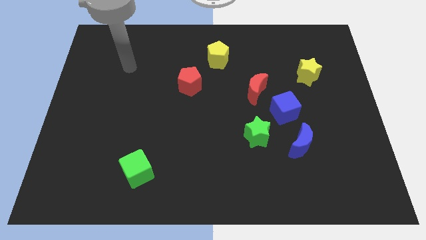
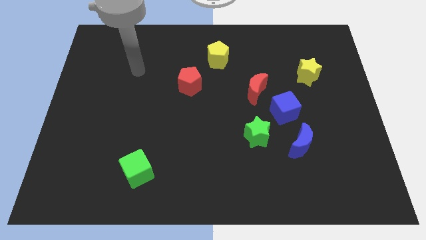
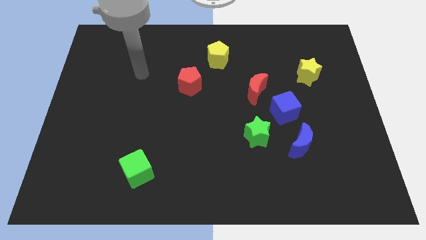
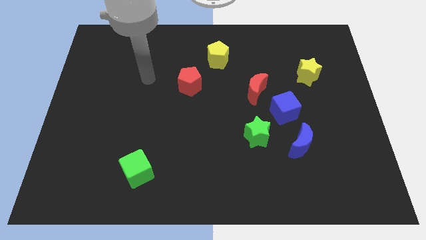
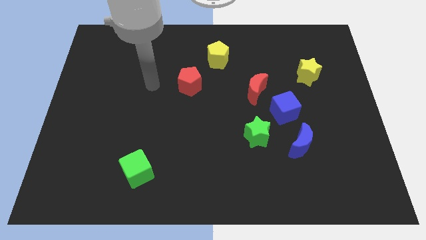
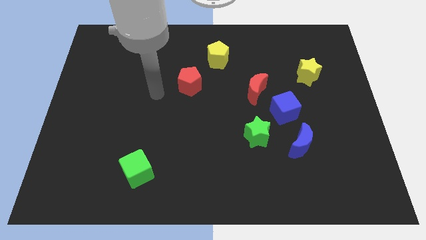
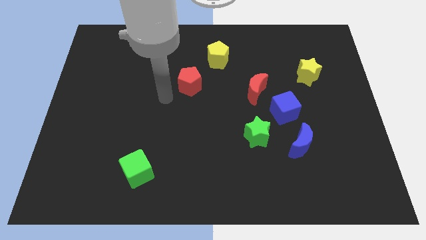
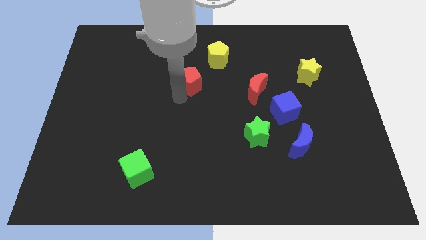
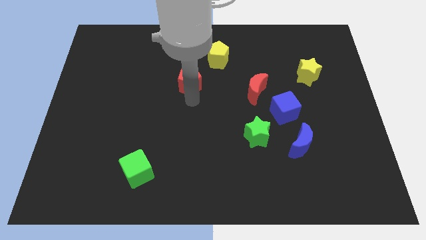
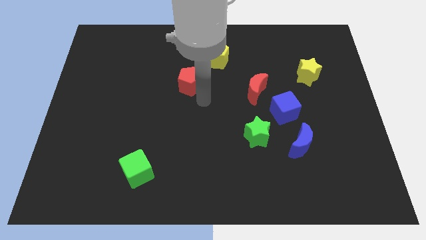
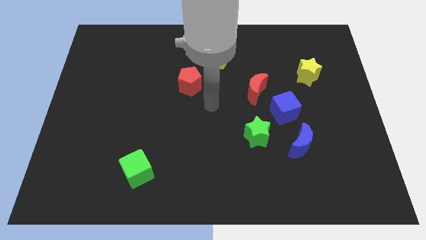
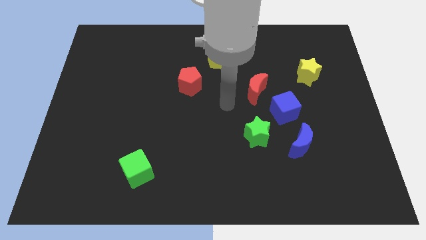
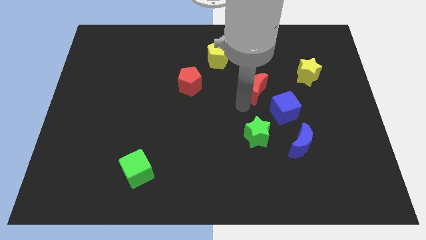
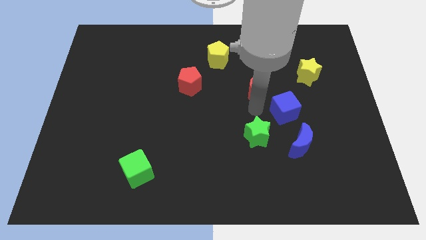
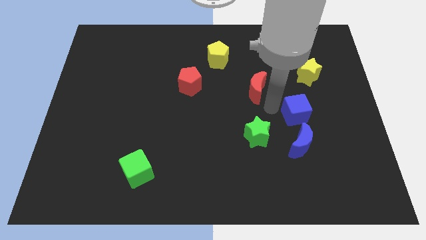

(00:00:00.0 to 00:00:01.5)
separate the red moon from the blue cube

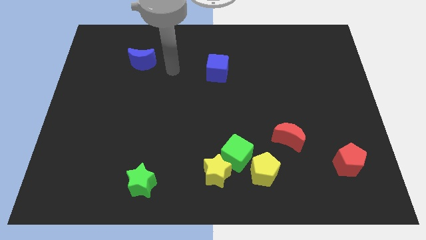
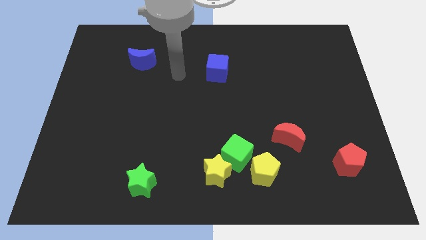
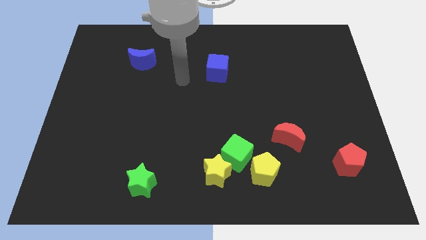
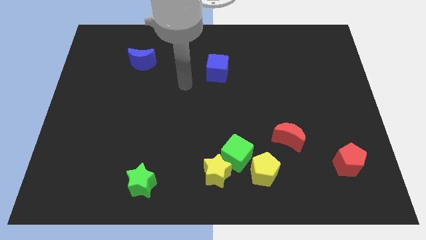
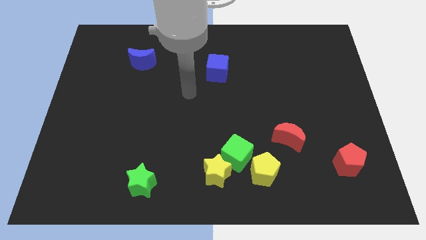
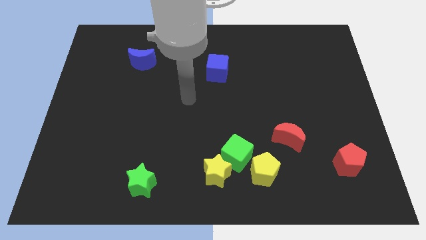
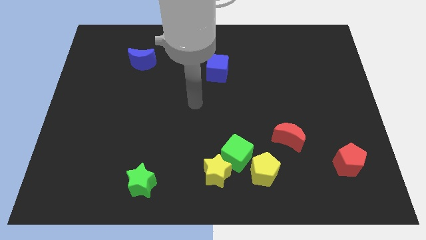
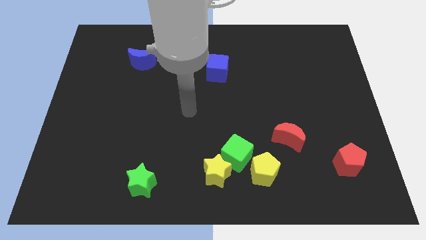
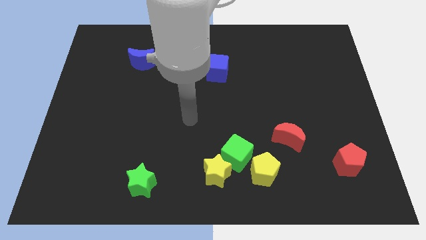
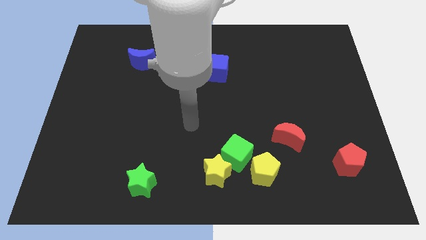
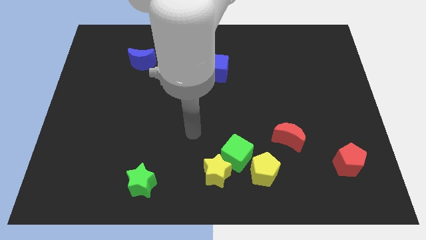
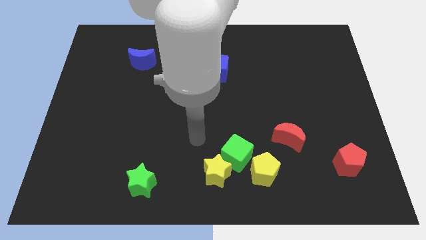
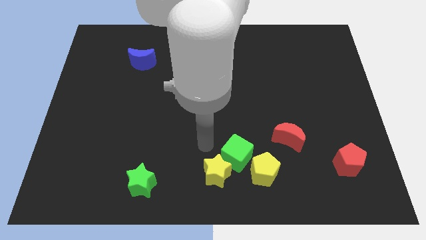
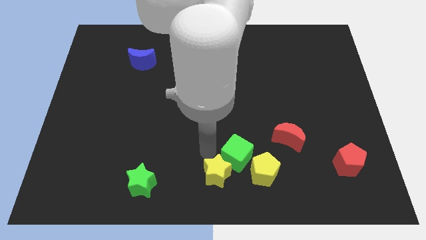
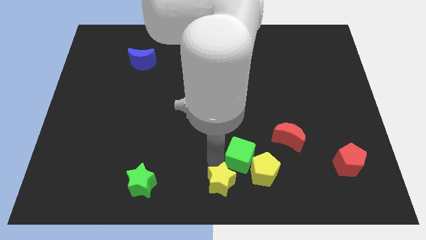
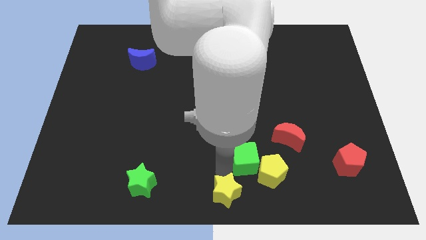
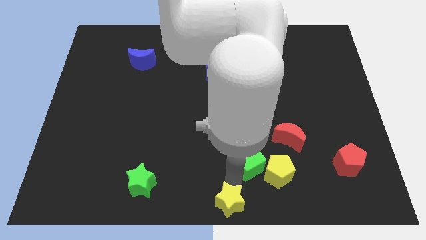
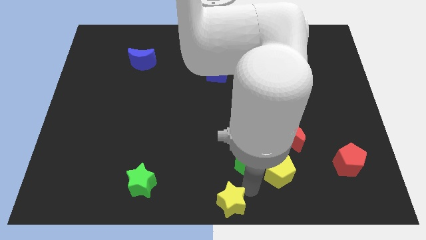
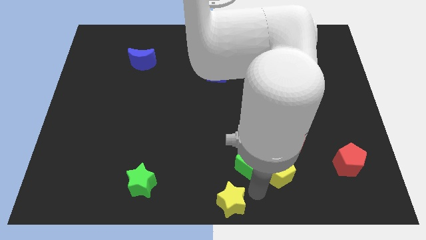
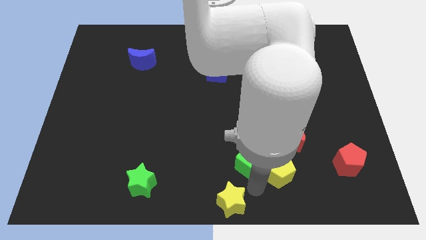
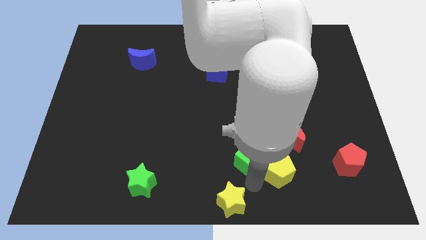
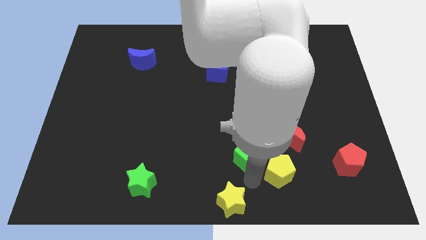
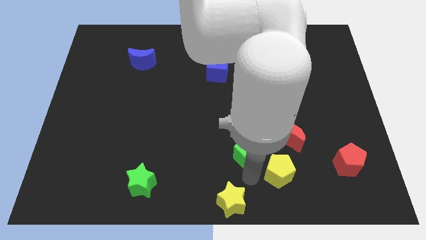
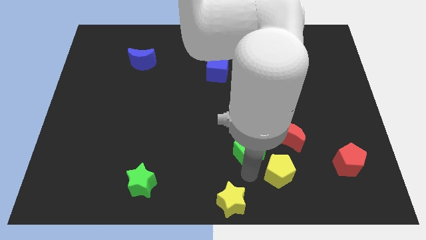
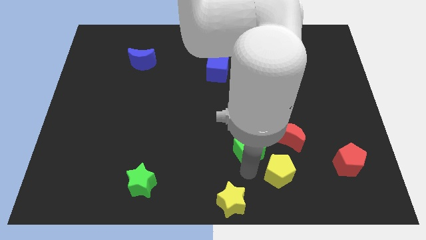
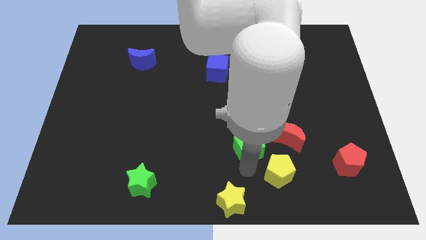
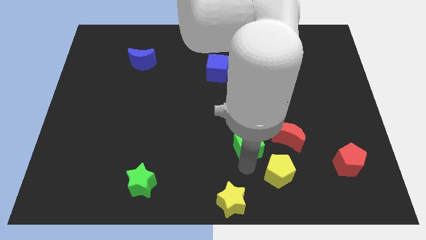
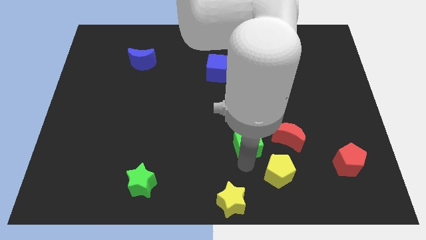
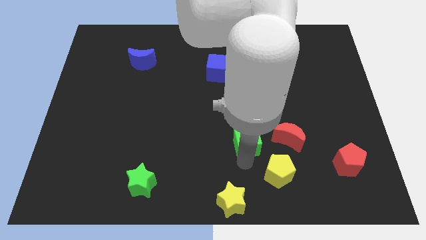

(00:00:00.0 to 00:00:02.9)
separate the green cube from the yellow star and yellow pentagon

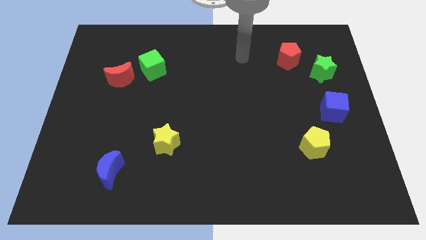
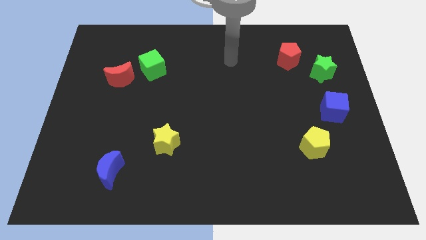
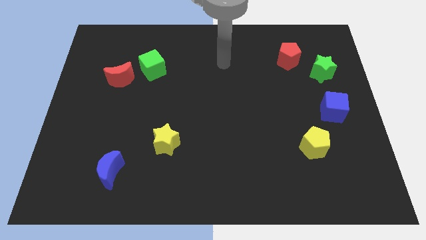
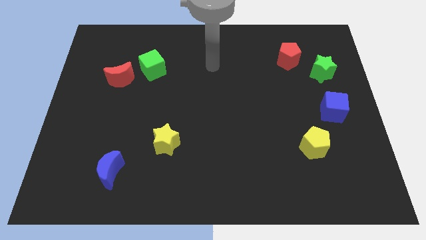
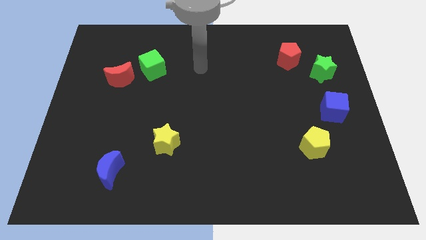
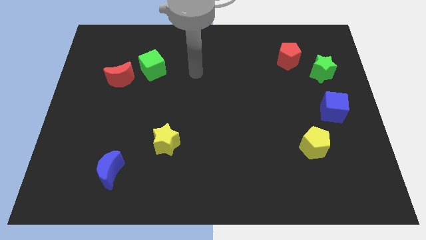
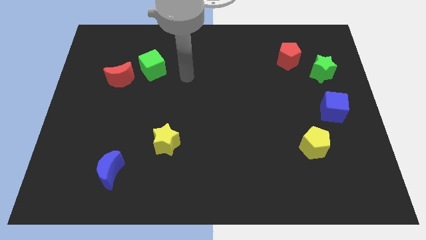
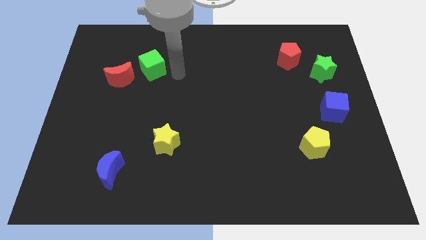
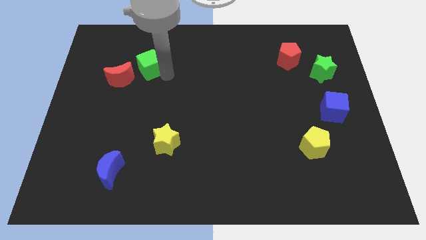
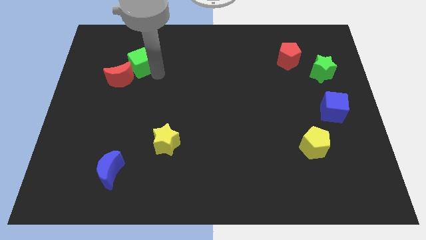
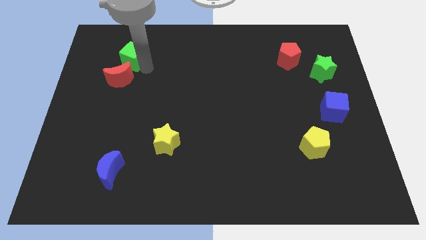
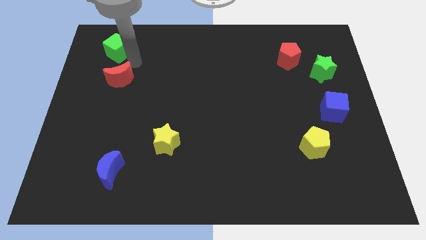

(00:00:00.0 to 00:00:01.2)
pull the red moon apart from the green cube

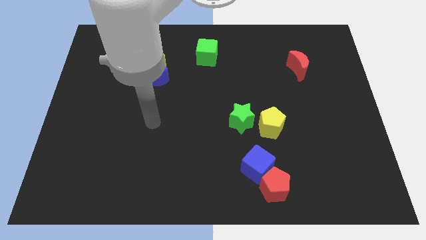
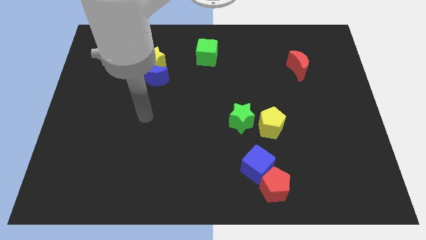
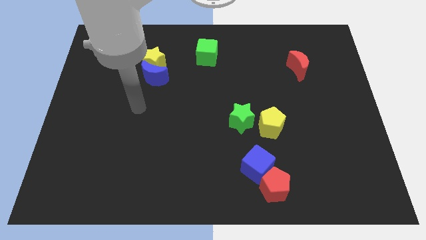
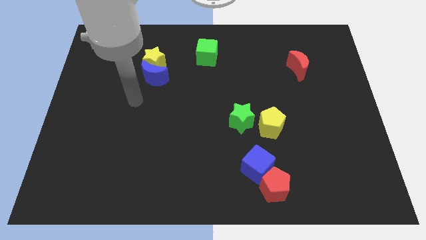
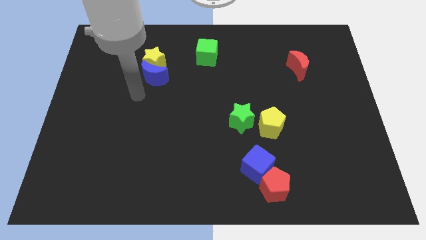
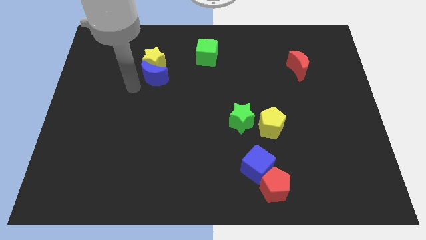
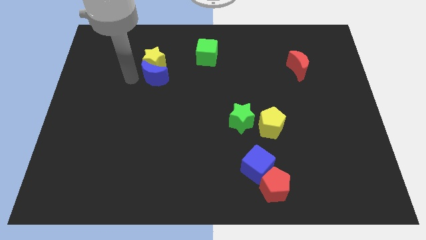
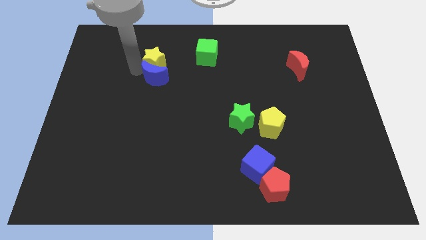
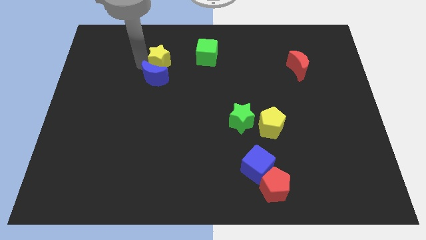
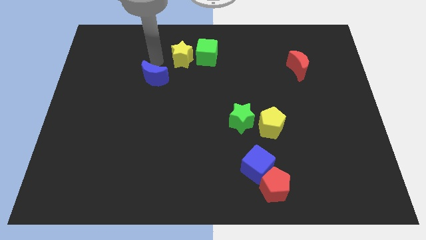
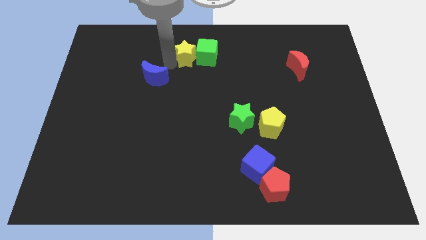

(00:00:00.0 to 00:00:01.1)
pull the blue moon apart from the yellow star

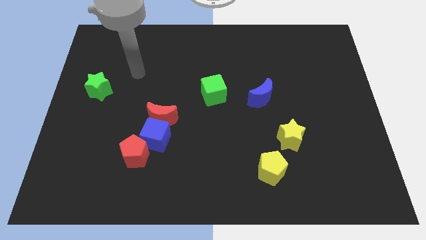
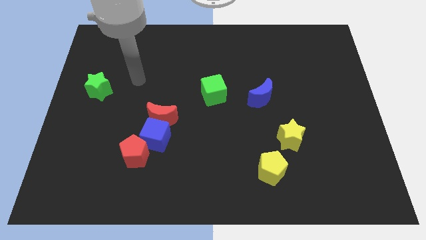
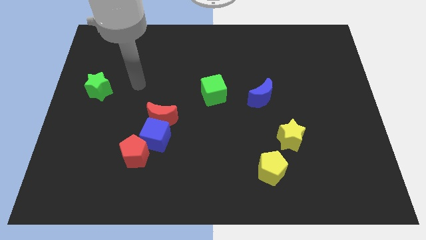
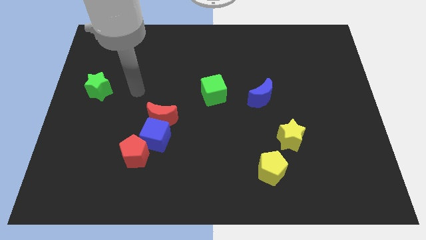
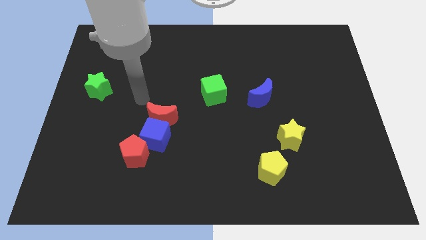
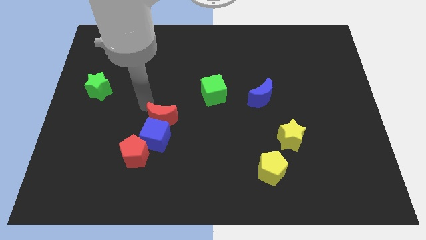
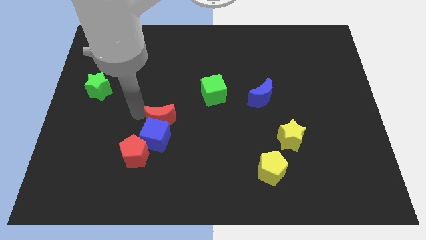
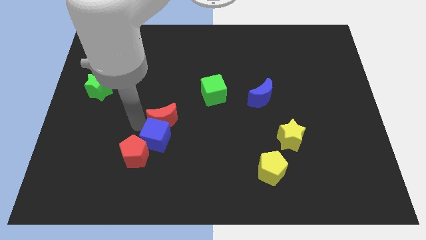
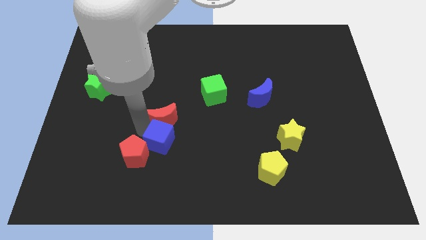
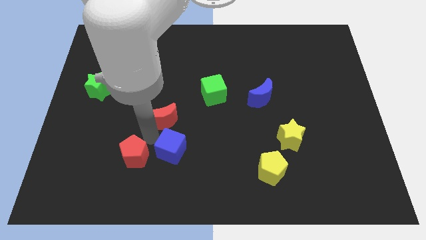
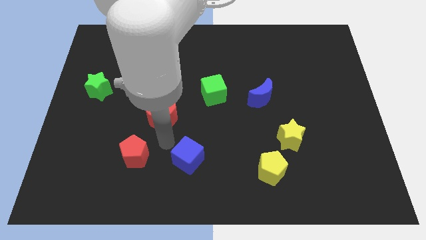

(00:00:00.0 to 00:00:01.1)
move the red moon away from the blue cube

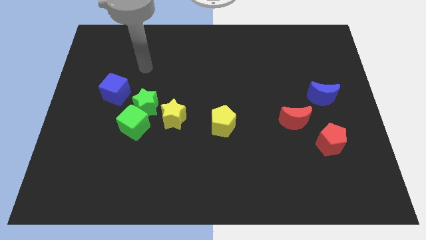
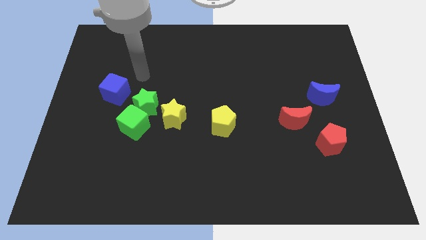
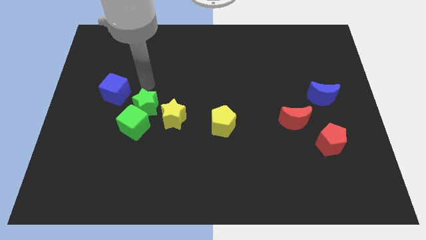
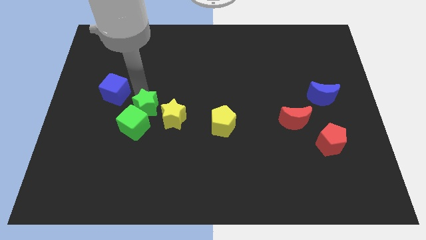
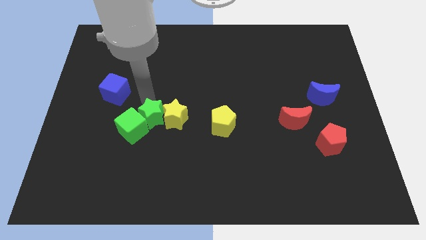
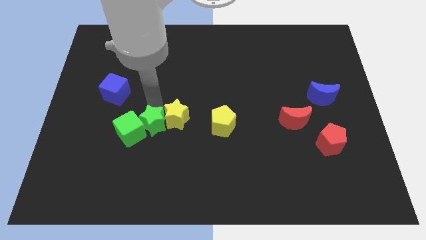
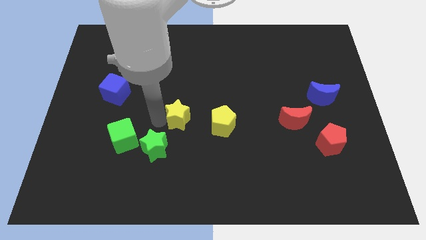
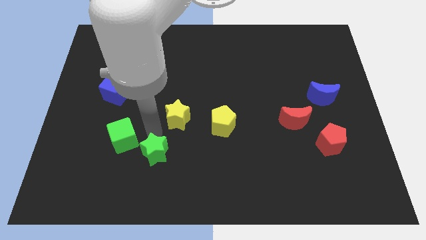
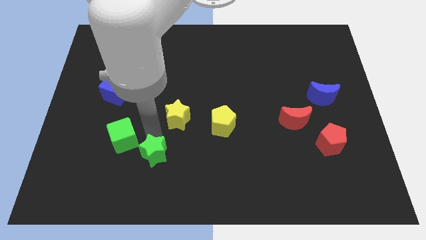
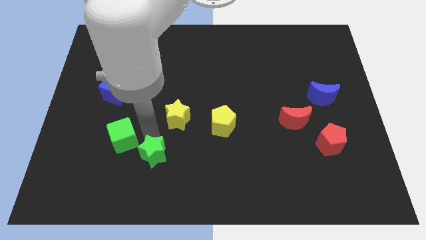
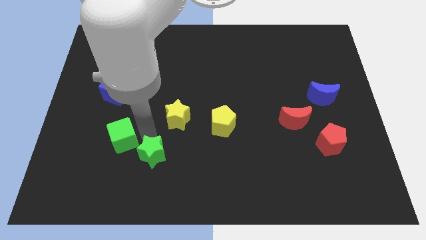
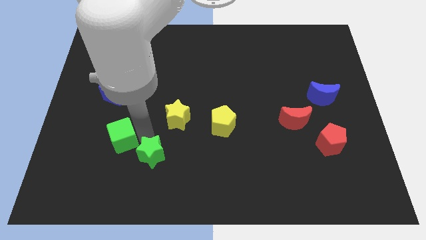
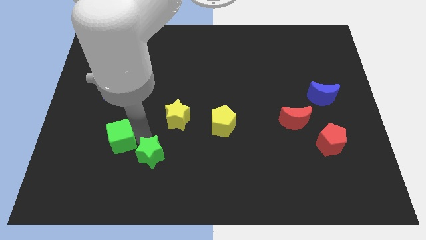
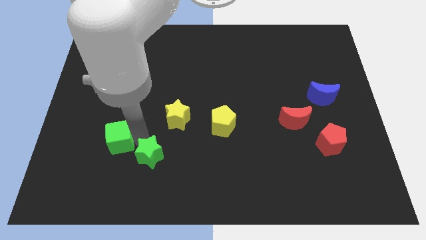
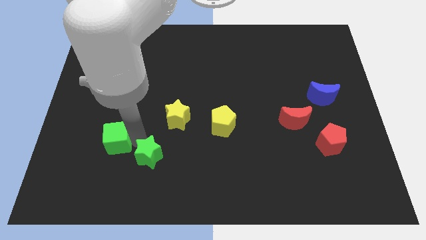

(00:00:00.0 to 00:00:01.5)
move the green cube away from the green star and yellow star
